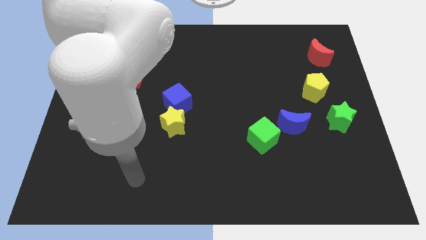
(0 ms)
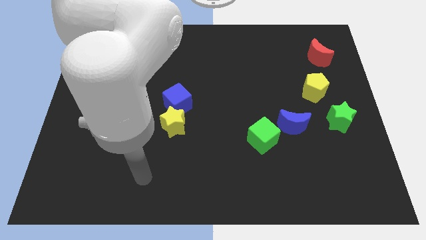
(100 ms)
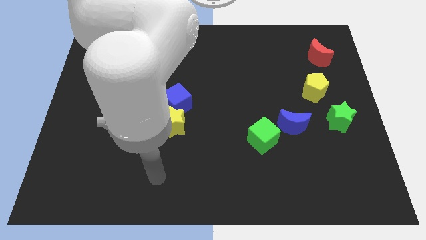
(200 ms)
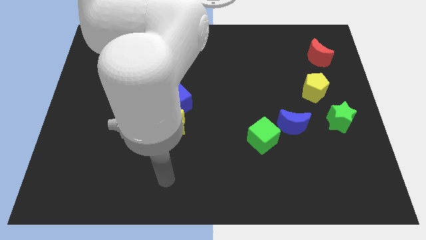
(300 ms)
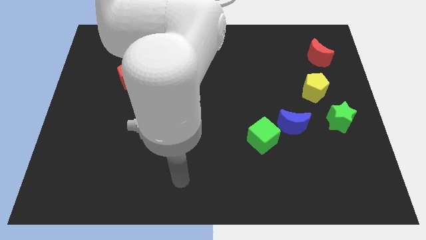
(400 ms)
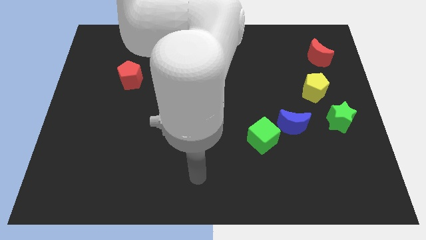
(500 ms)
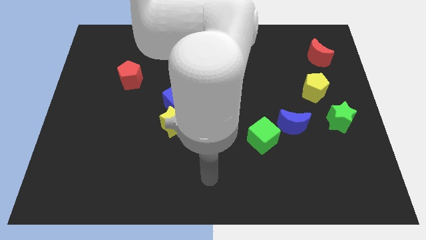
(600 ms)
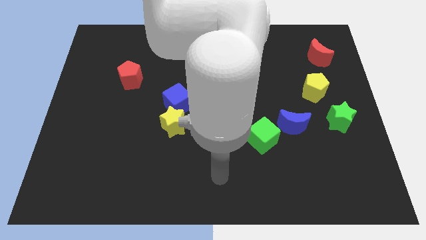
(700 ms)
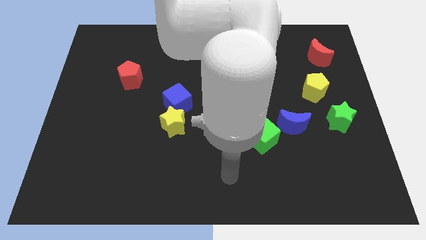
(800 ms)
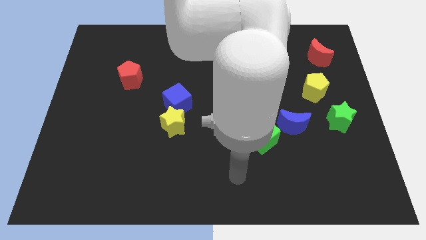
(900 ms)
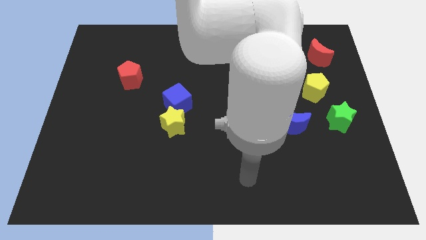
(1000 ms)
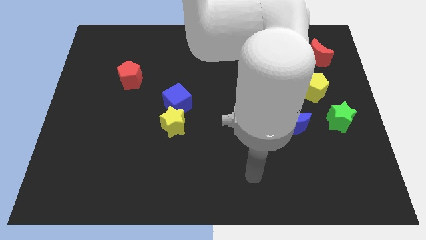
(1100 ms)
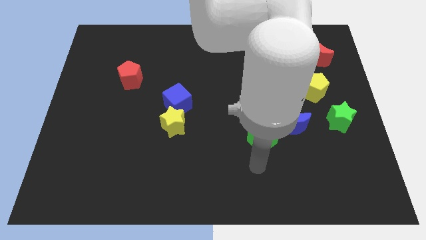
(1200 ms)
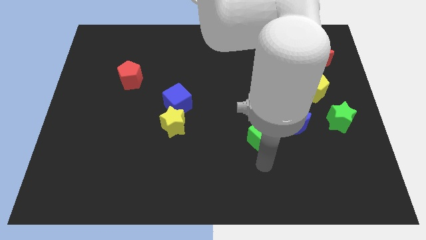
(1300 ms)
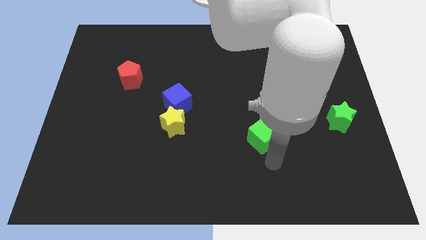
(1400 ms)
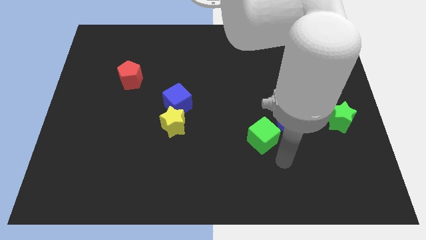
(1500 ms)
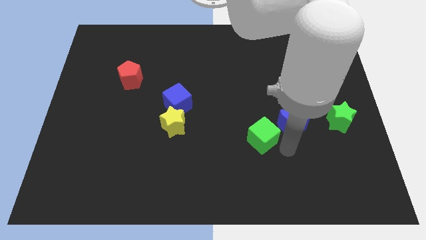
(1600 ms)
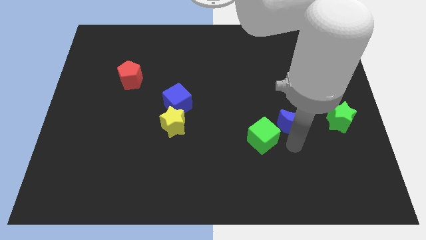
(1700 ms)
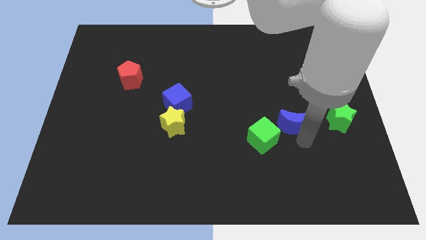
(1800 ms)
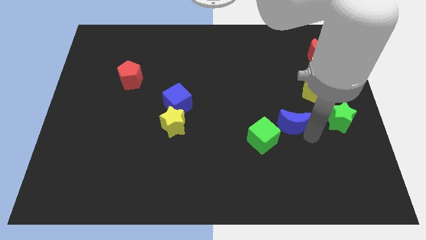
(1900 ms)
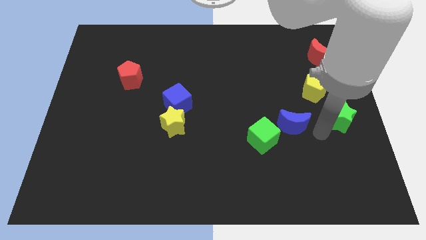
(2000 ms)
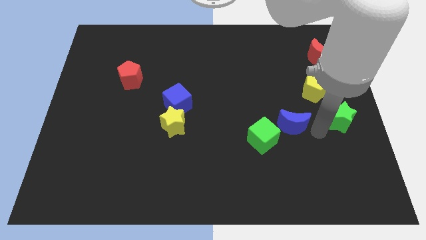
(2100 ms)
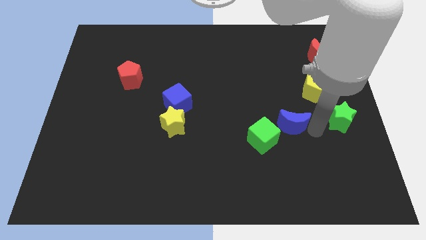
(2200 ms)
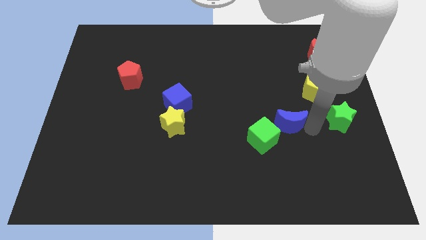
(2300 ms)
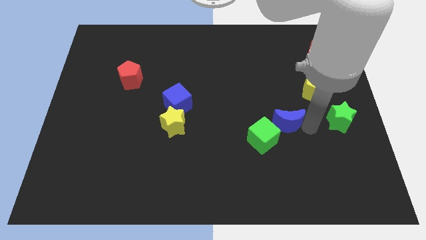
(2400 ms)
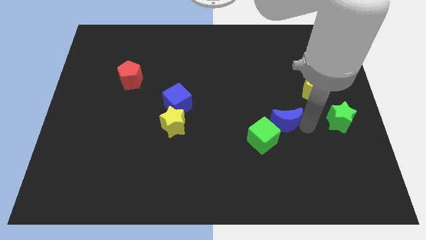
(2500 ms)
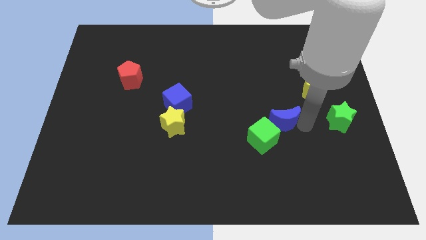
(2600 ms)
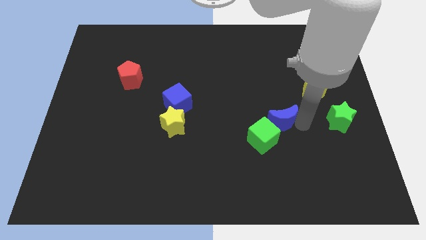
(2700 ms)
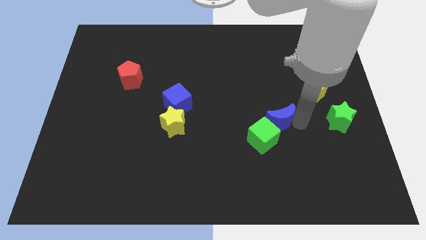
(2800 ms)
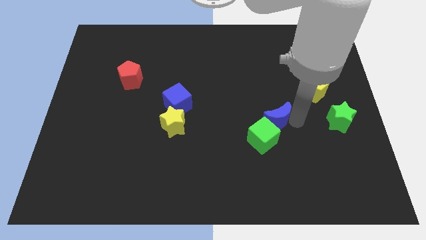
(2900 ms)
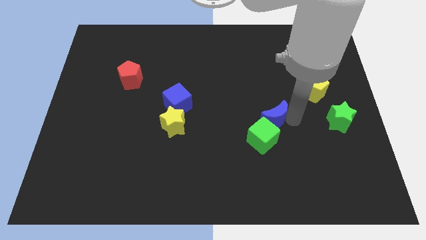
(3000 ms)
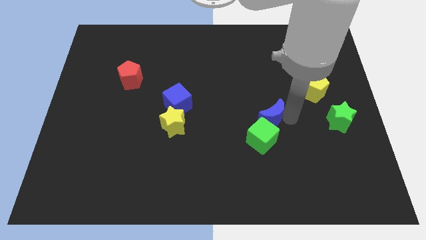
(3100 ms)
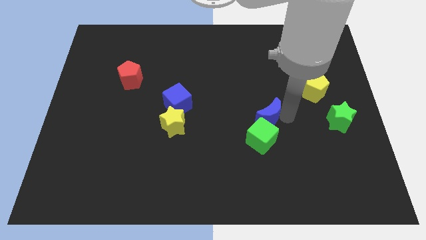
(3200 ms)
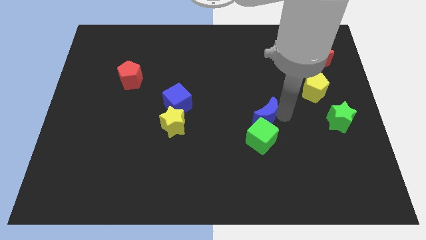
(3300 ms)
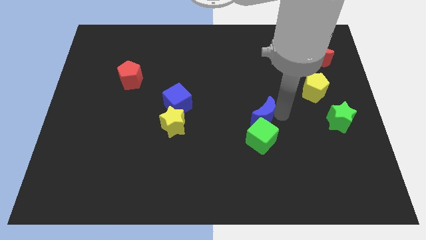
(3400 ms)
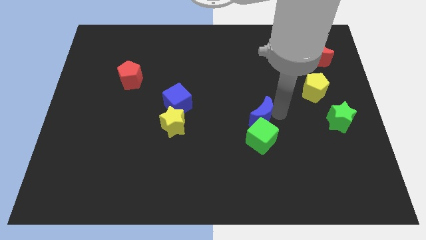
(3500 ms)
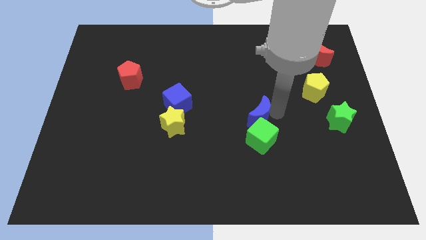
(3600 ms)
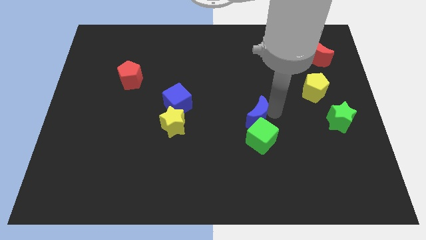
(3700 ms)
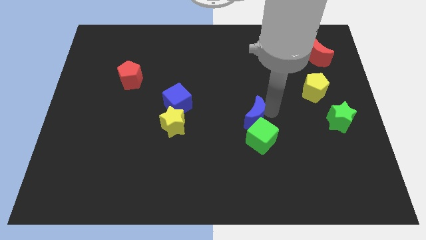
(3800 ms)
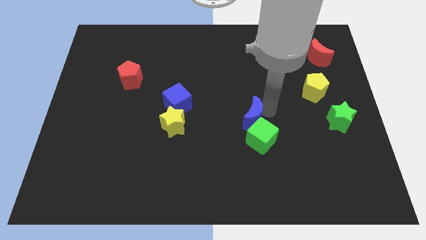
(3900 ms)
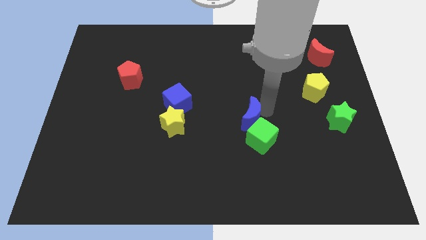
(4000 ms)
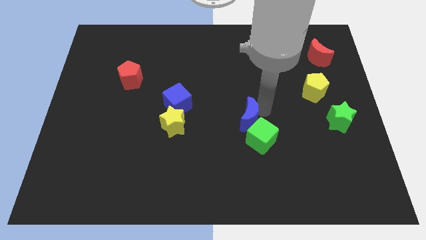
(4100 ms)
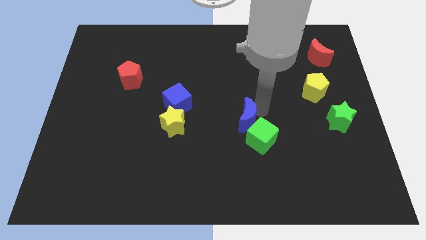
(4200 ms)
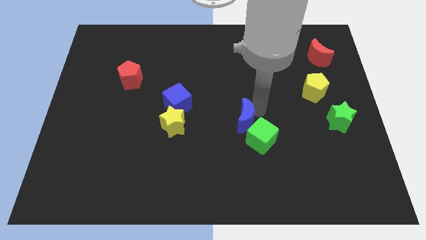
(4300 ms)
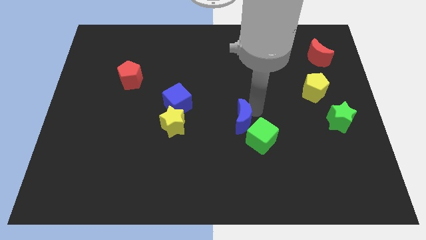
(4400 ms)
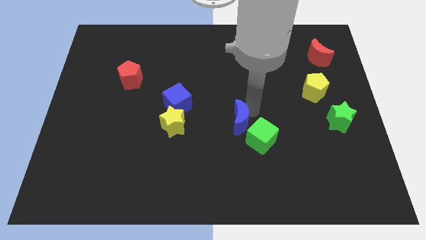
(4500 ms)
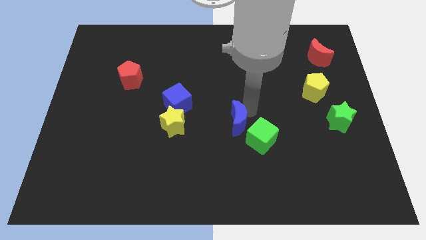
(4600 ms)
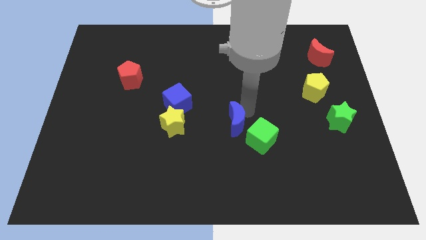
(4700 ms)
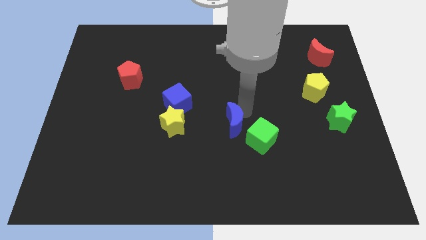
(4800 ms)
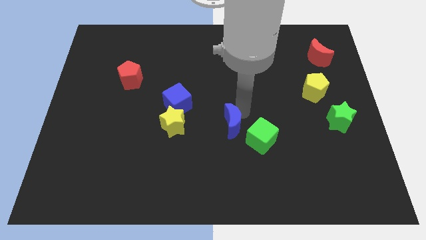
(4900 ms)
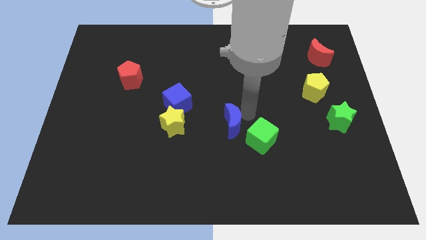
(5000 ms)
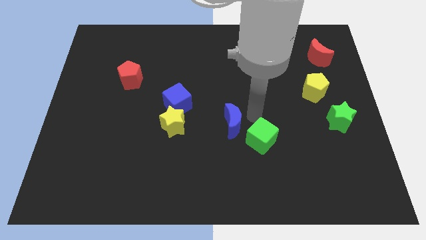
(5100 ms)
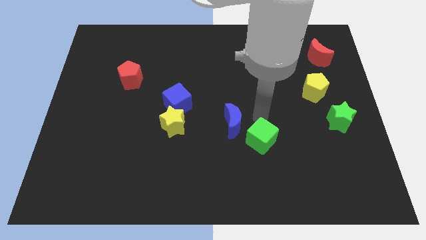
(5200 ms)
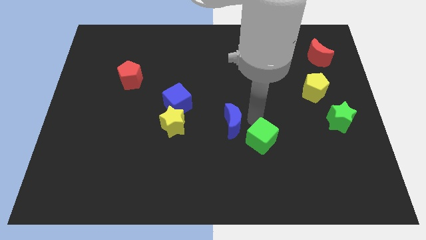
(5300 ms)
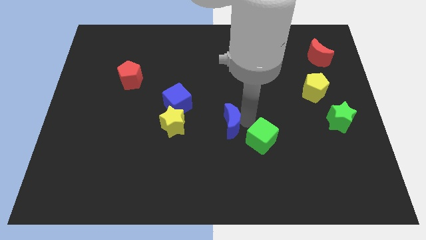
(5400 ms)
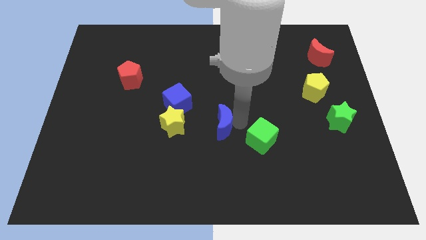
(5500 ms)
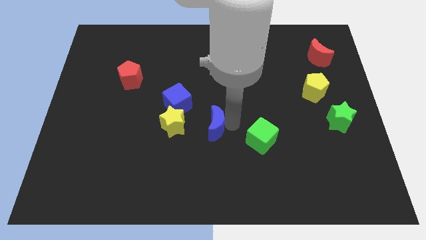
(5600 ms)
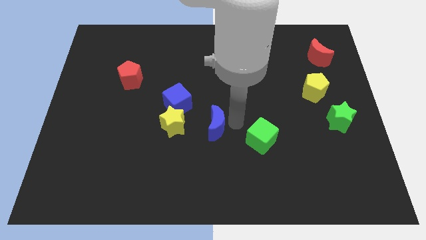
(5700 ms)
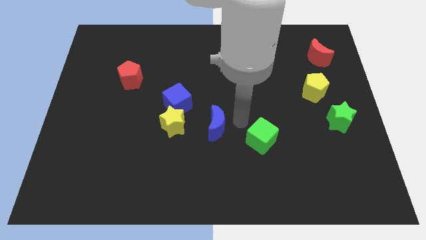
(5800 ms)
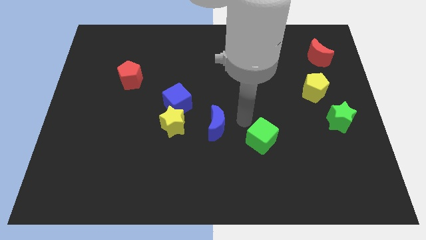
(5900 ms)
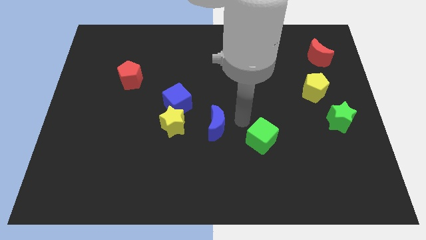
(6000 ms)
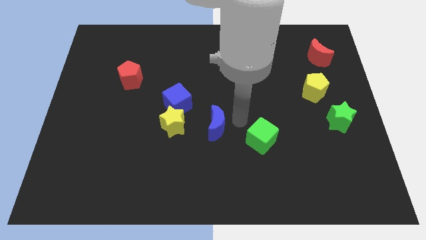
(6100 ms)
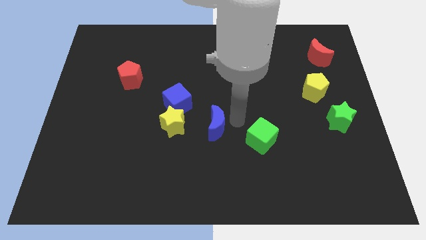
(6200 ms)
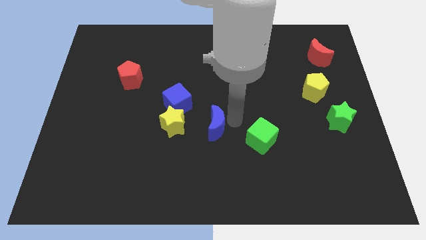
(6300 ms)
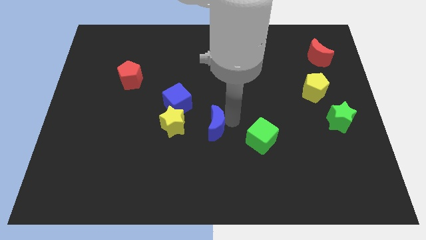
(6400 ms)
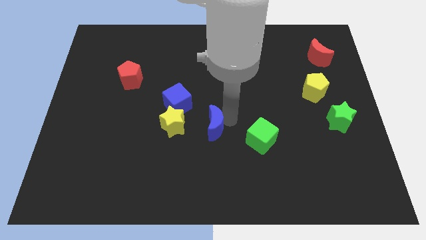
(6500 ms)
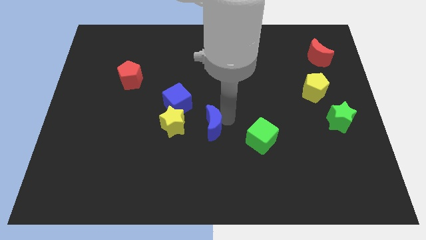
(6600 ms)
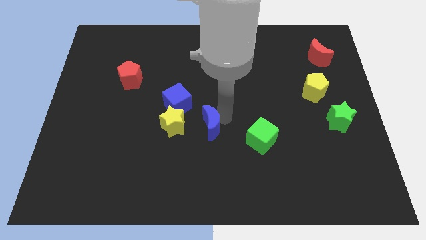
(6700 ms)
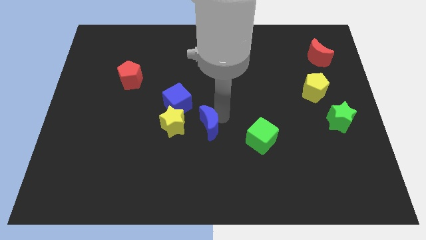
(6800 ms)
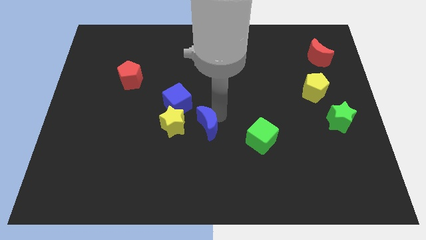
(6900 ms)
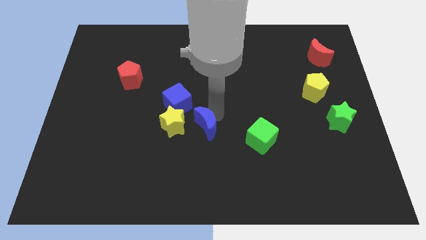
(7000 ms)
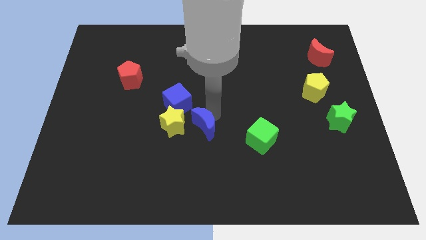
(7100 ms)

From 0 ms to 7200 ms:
move the blue moon left

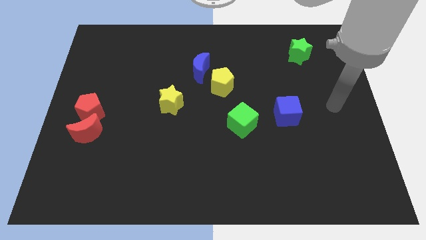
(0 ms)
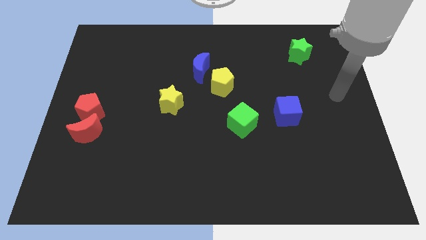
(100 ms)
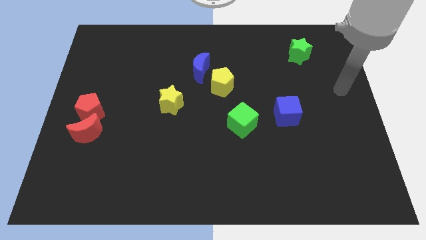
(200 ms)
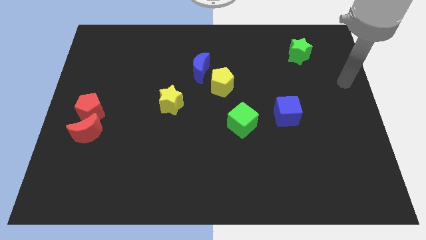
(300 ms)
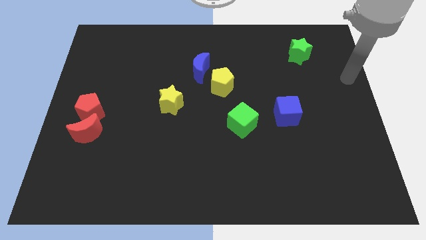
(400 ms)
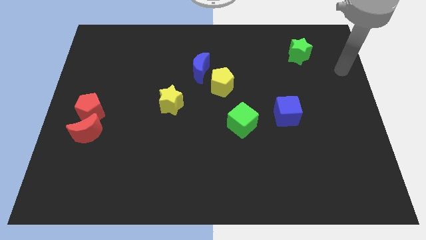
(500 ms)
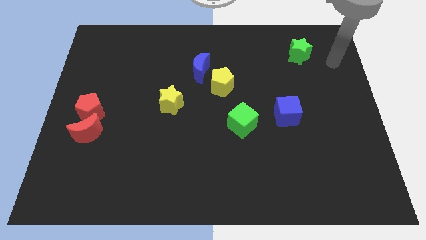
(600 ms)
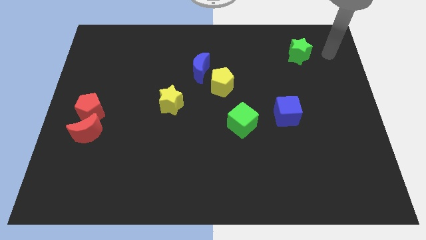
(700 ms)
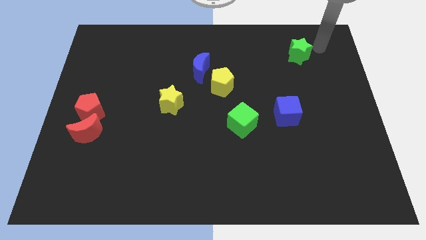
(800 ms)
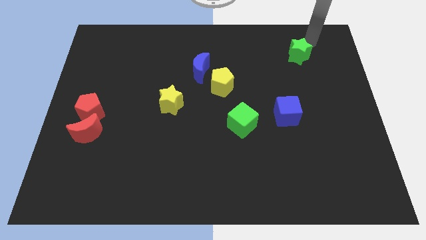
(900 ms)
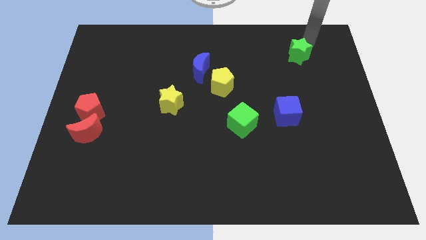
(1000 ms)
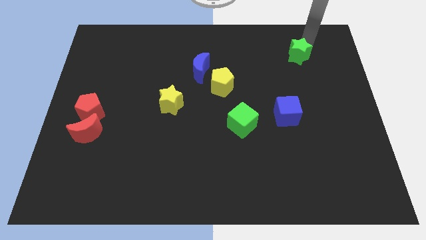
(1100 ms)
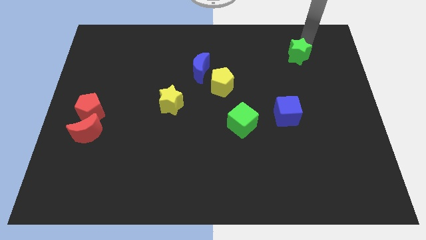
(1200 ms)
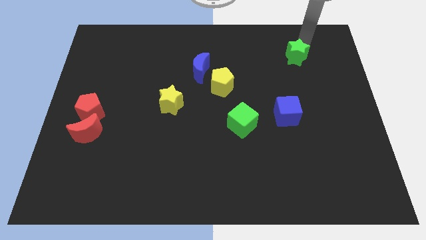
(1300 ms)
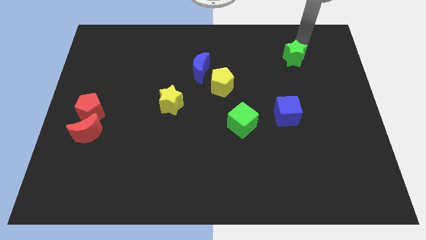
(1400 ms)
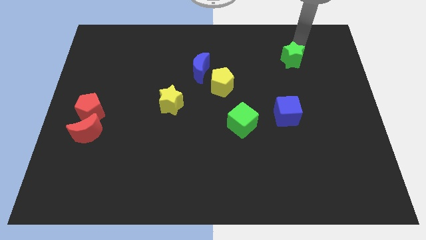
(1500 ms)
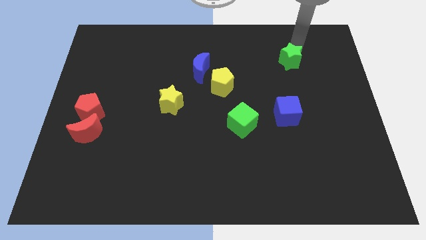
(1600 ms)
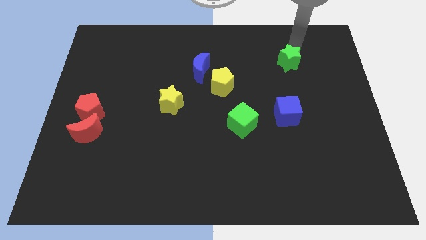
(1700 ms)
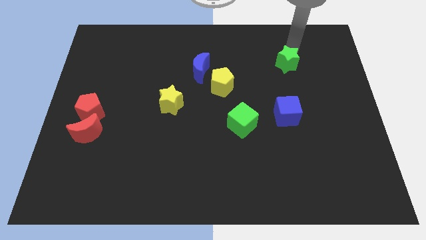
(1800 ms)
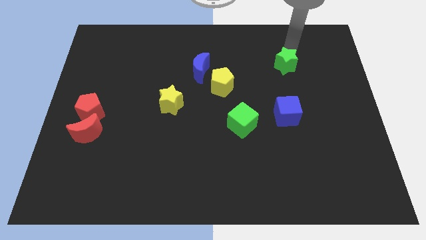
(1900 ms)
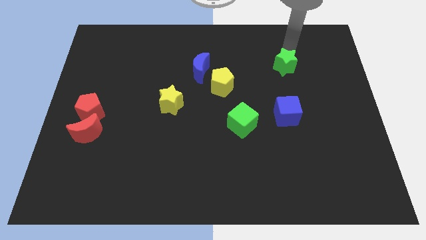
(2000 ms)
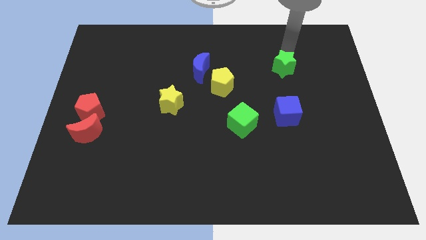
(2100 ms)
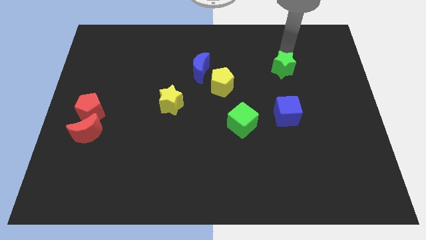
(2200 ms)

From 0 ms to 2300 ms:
slightly slide the green star downwards and then left
